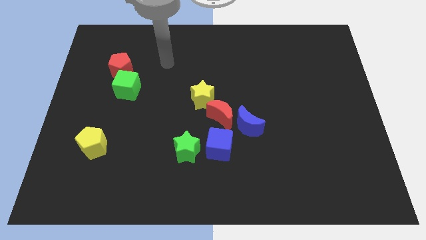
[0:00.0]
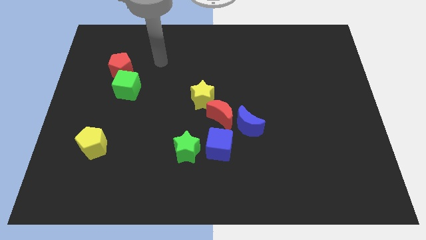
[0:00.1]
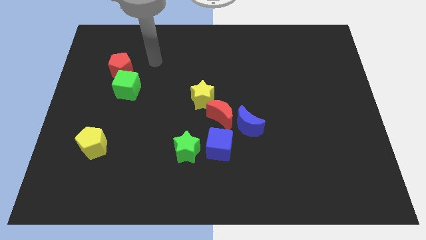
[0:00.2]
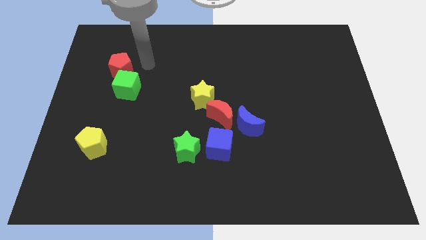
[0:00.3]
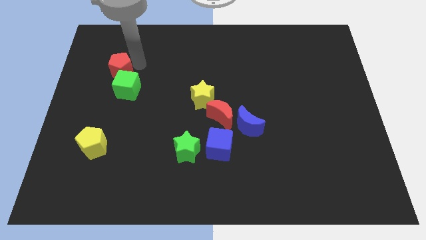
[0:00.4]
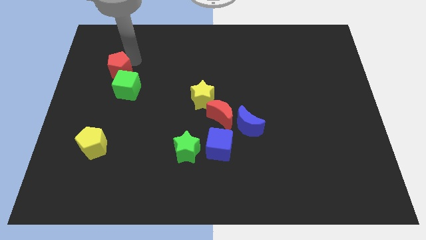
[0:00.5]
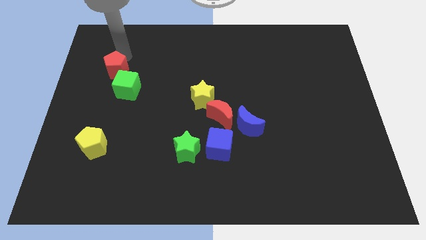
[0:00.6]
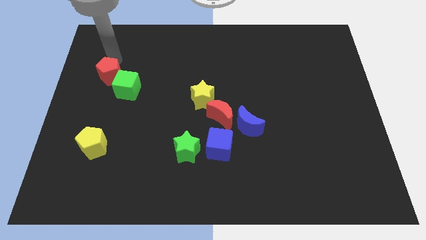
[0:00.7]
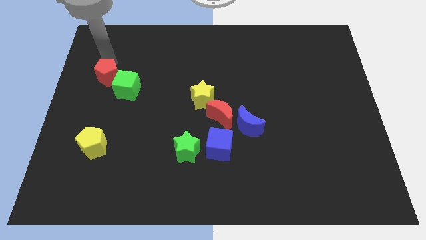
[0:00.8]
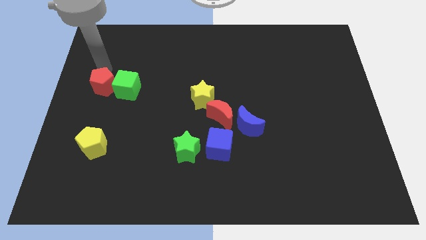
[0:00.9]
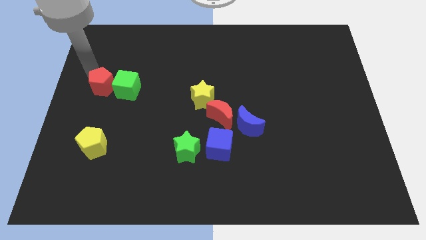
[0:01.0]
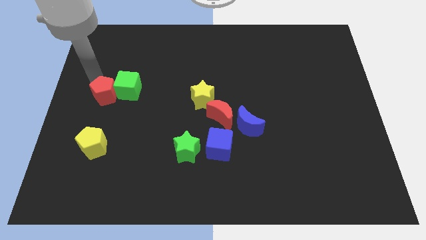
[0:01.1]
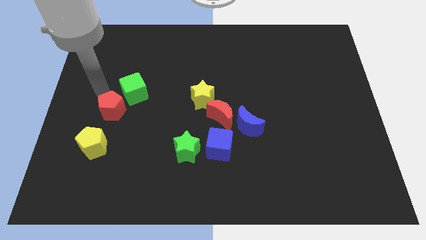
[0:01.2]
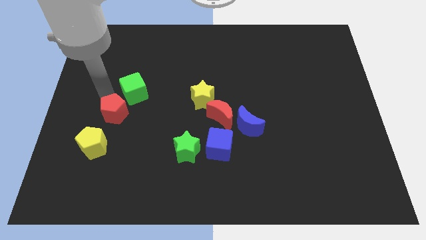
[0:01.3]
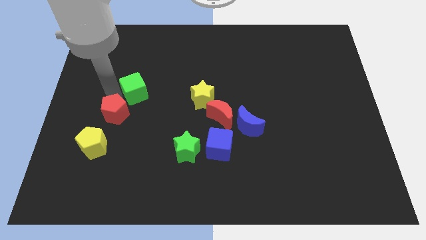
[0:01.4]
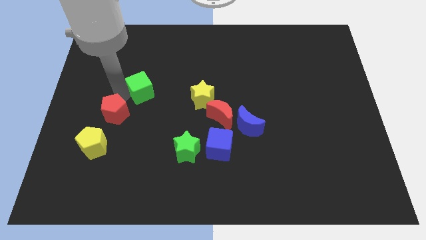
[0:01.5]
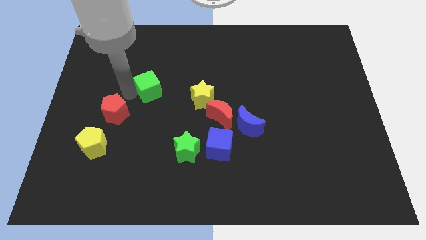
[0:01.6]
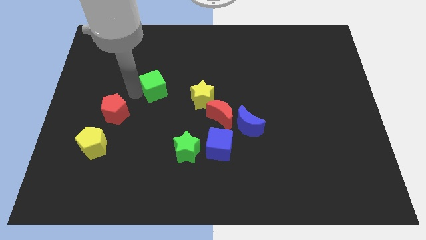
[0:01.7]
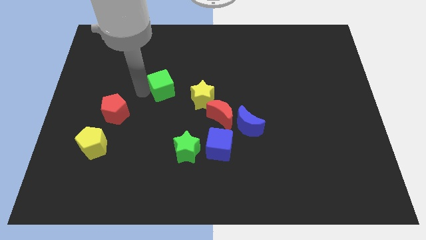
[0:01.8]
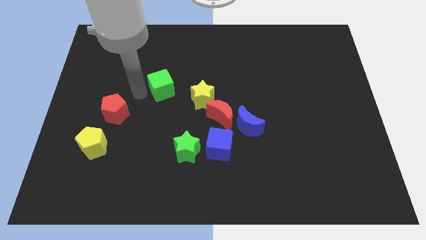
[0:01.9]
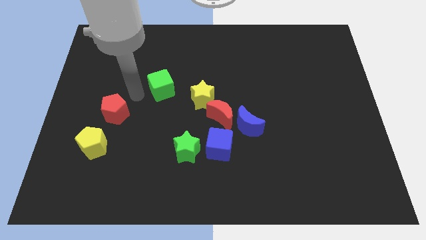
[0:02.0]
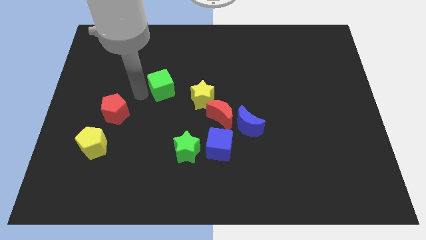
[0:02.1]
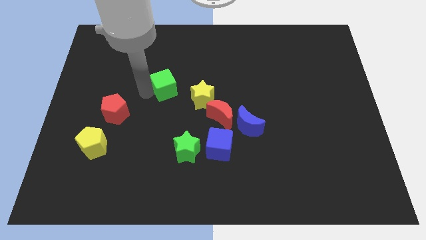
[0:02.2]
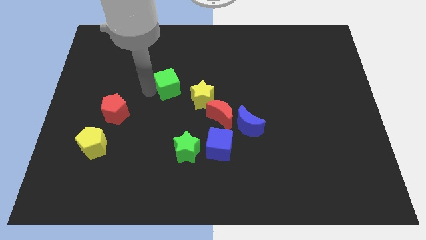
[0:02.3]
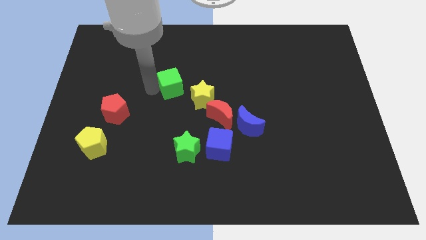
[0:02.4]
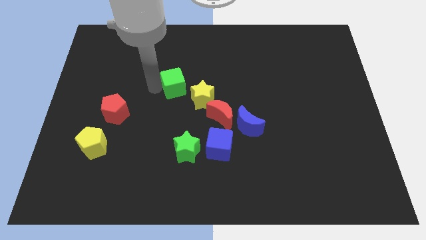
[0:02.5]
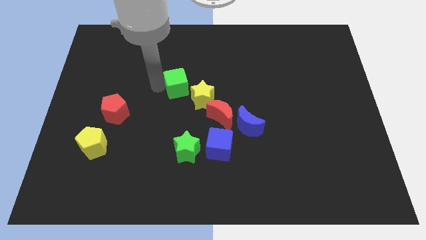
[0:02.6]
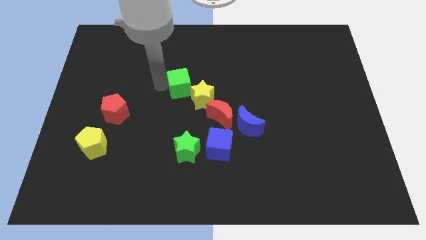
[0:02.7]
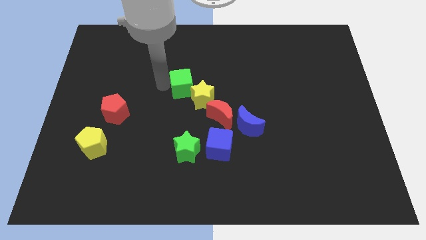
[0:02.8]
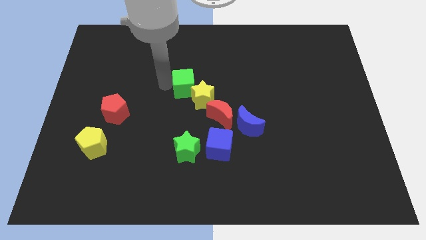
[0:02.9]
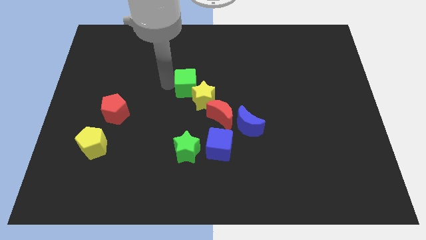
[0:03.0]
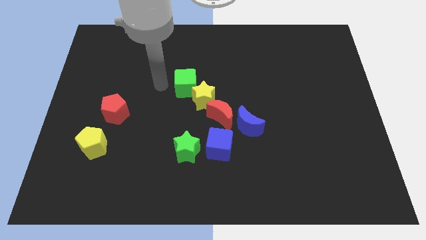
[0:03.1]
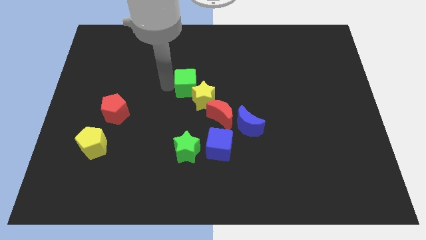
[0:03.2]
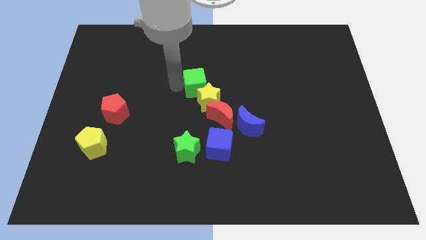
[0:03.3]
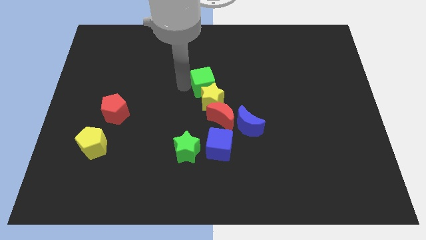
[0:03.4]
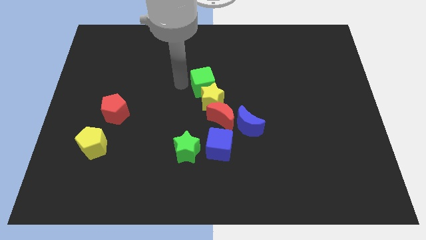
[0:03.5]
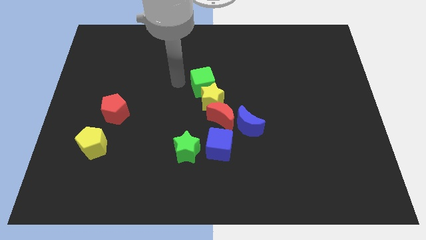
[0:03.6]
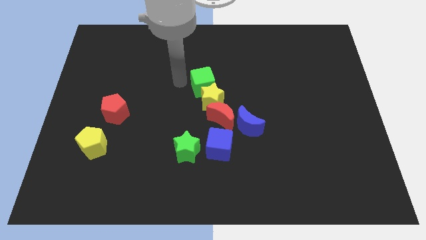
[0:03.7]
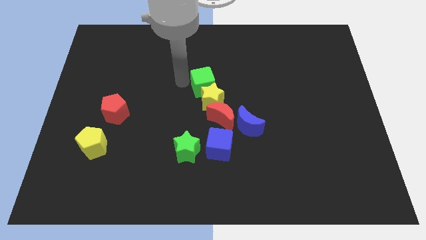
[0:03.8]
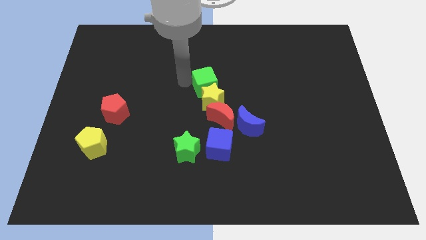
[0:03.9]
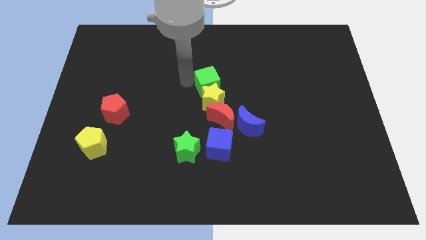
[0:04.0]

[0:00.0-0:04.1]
move the green cube to the right

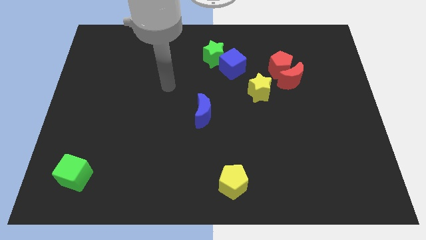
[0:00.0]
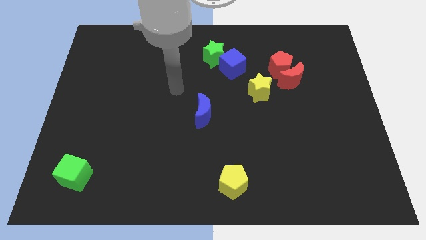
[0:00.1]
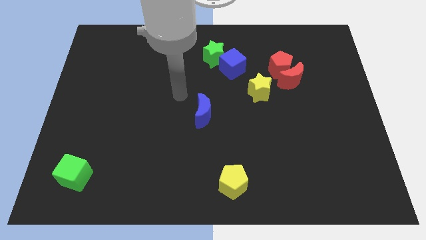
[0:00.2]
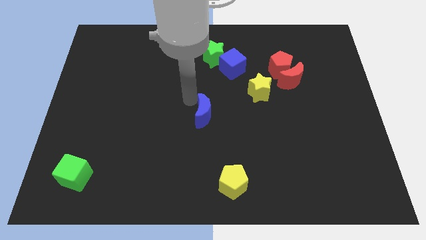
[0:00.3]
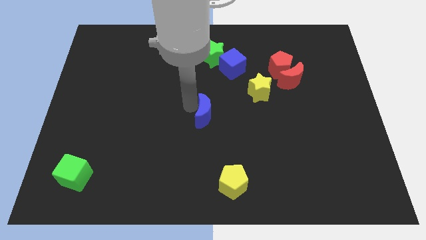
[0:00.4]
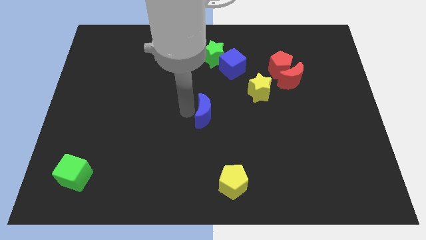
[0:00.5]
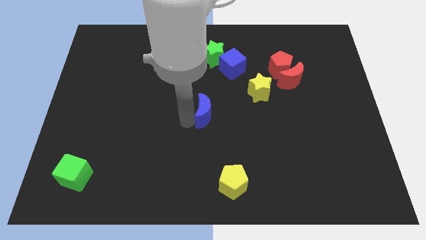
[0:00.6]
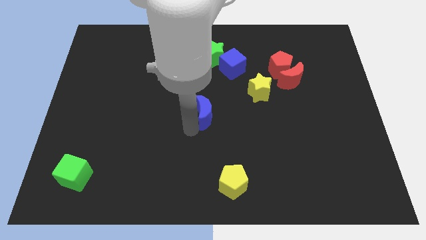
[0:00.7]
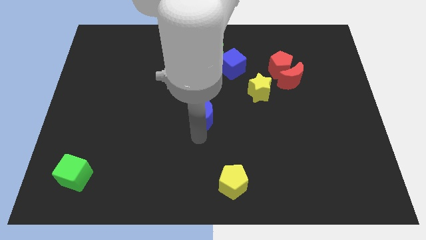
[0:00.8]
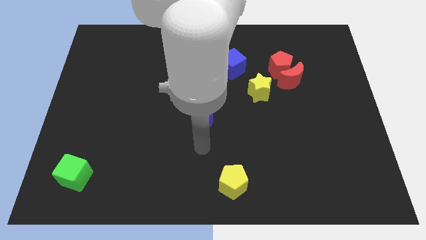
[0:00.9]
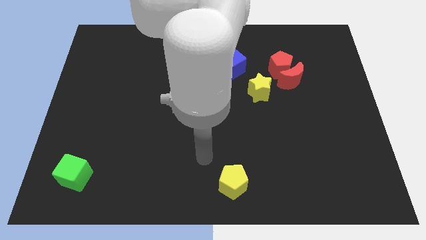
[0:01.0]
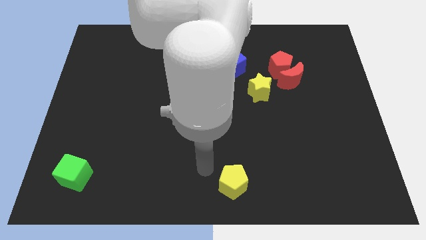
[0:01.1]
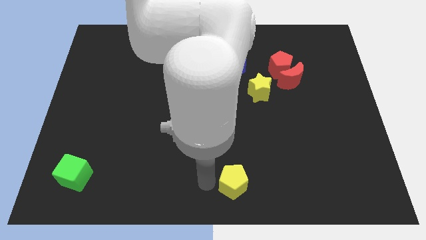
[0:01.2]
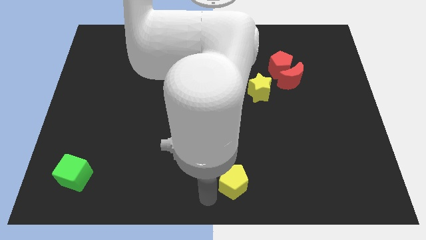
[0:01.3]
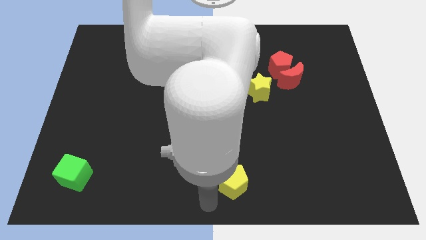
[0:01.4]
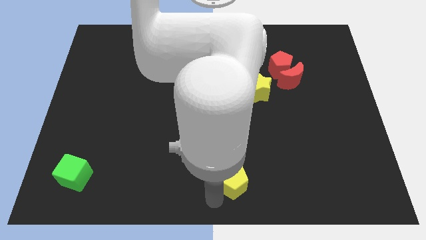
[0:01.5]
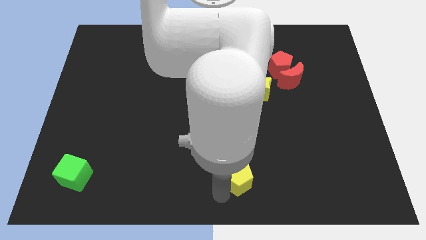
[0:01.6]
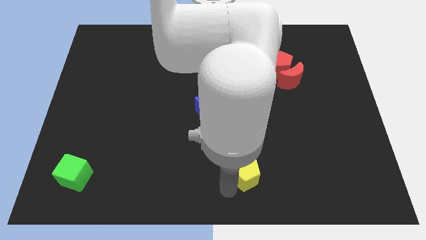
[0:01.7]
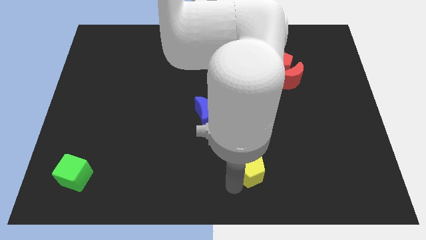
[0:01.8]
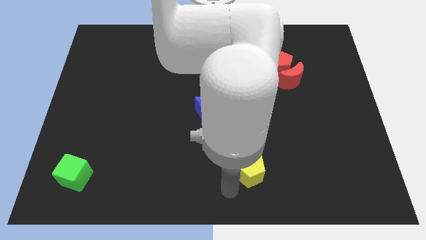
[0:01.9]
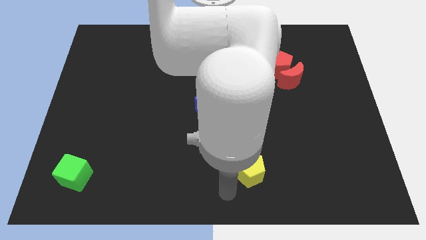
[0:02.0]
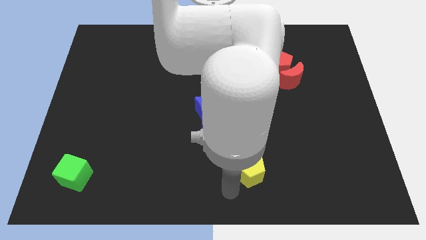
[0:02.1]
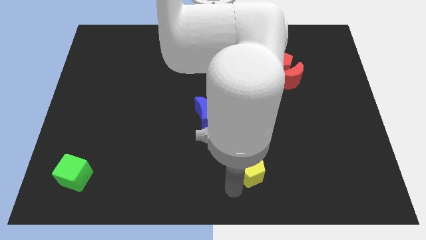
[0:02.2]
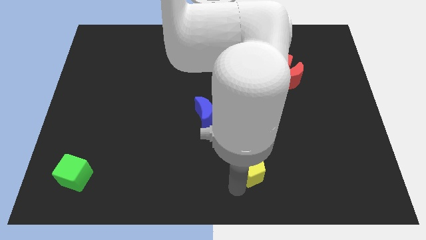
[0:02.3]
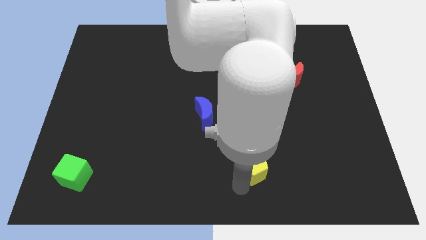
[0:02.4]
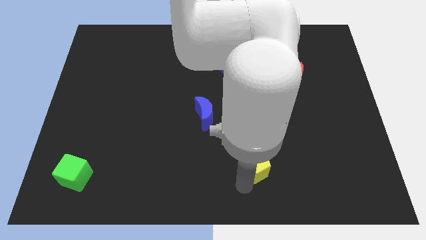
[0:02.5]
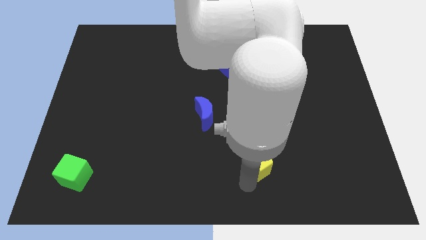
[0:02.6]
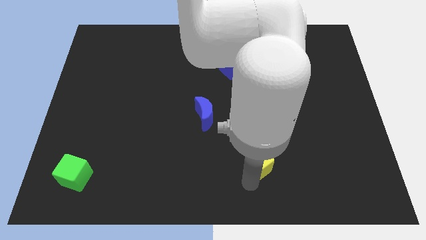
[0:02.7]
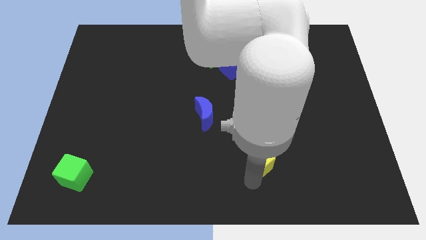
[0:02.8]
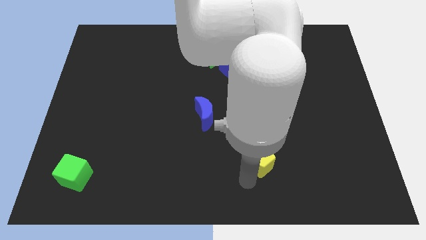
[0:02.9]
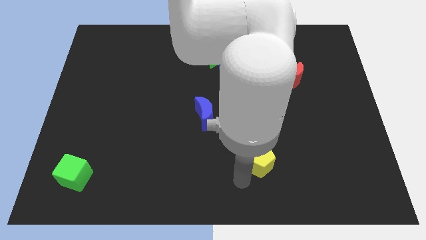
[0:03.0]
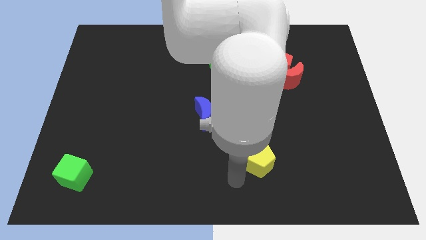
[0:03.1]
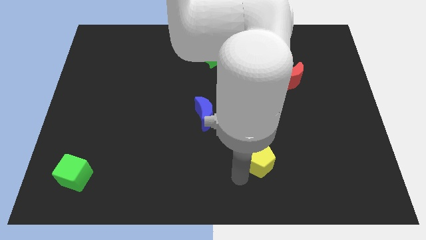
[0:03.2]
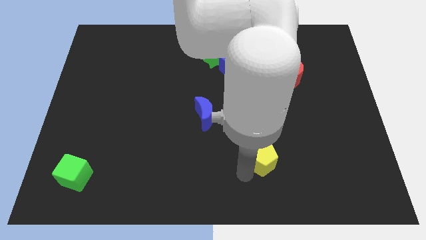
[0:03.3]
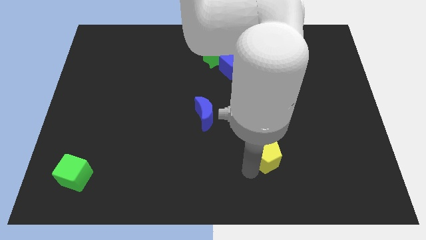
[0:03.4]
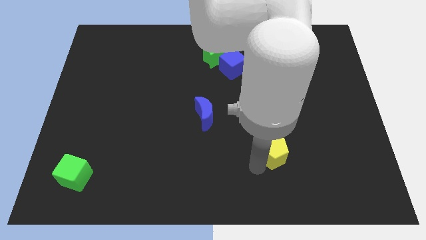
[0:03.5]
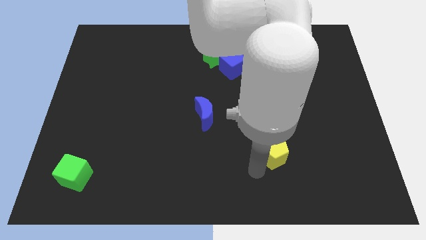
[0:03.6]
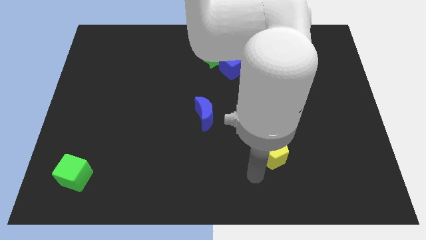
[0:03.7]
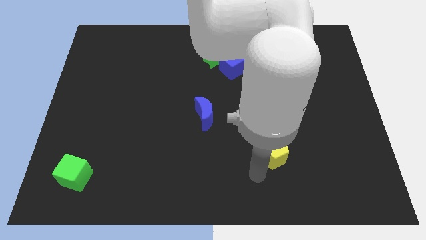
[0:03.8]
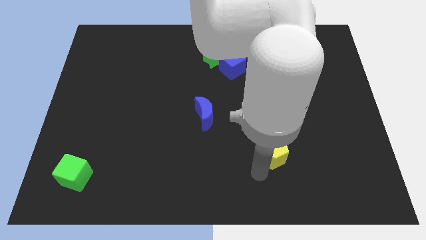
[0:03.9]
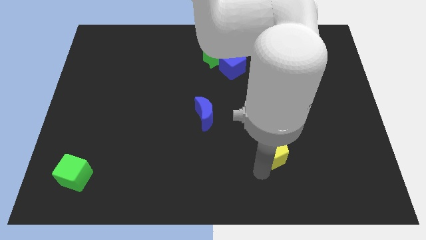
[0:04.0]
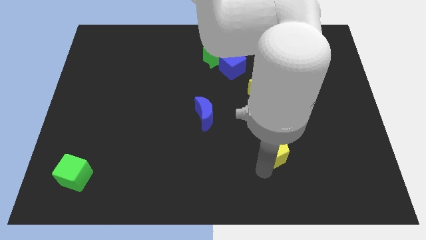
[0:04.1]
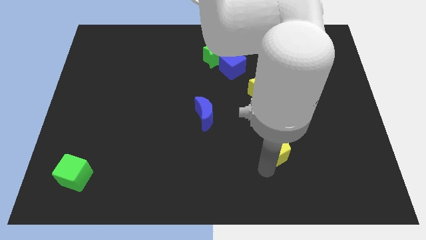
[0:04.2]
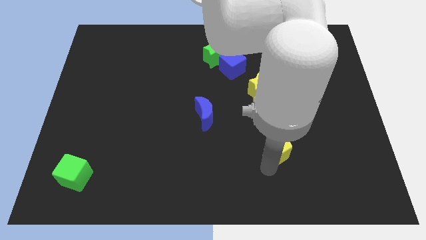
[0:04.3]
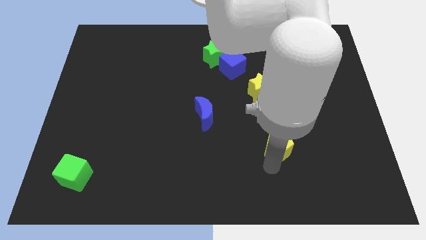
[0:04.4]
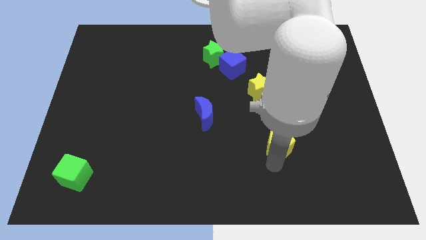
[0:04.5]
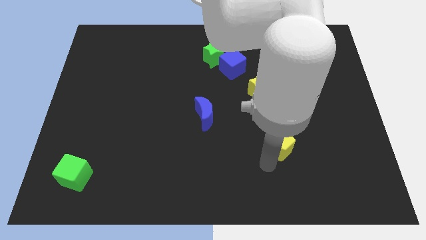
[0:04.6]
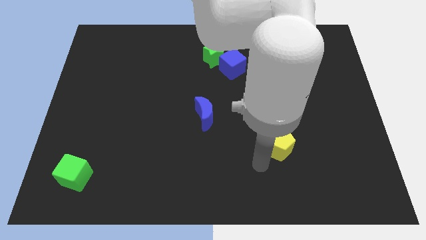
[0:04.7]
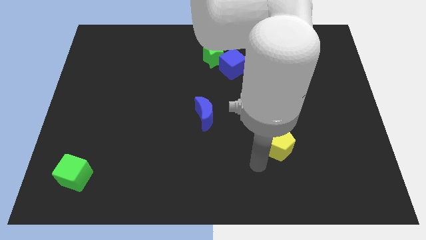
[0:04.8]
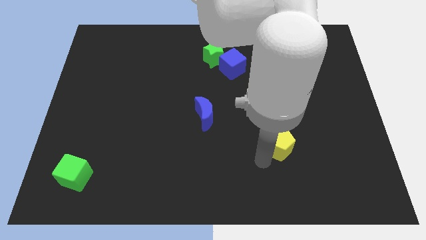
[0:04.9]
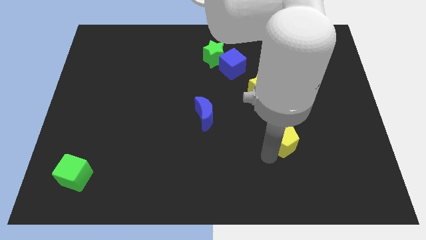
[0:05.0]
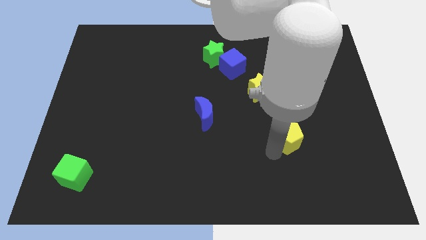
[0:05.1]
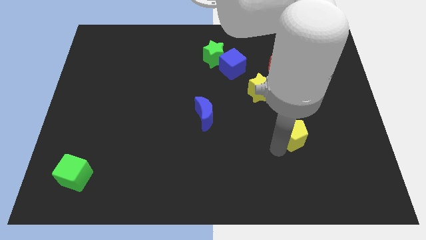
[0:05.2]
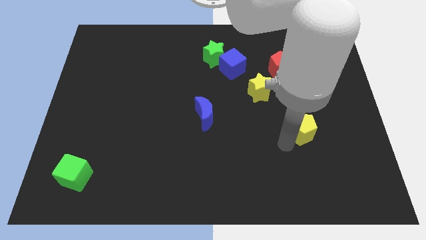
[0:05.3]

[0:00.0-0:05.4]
move the yellow pentagon upwards and to the right
